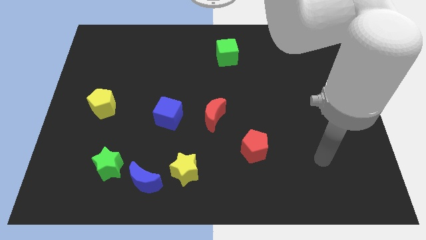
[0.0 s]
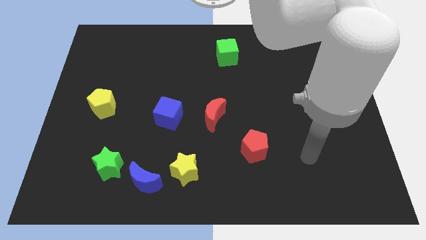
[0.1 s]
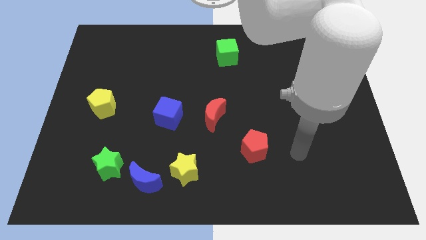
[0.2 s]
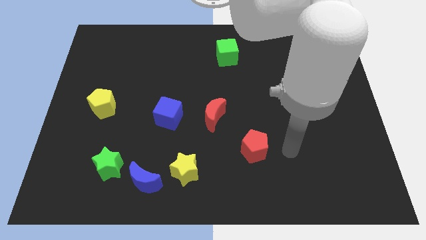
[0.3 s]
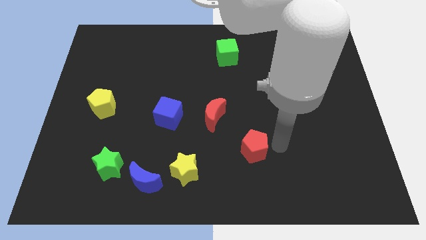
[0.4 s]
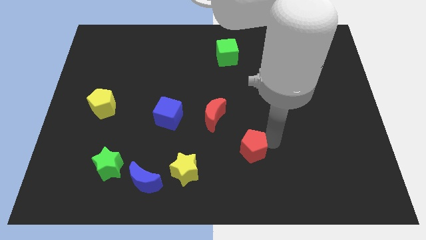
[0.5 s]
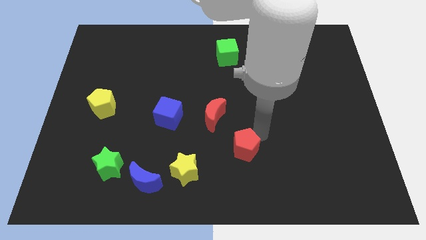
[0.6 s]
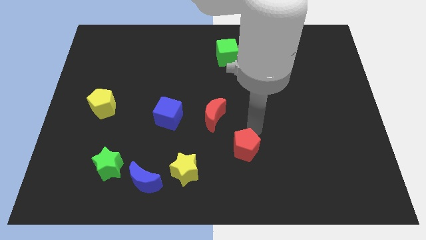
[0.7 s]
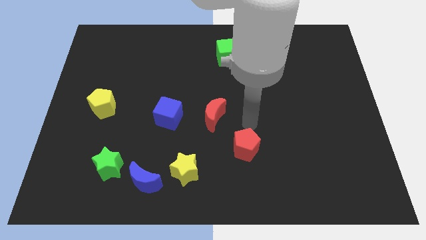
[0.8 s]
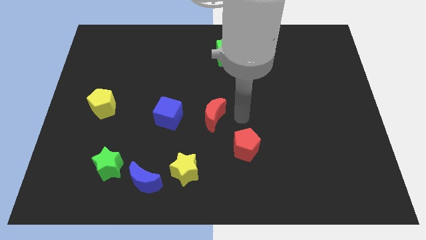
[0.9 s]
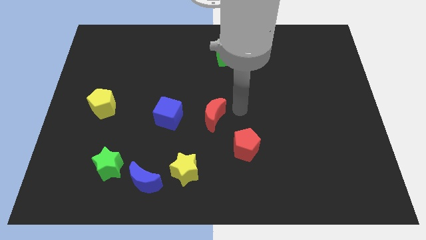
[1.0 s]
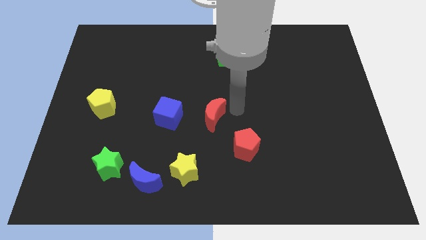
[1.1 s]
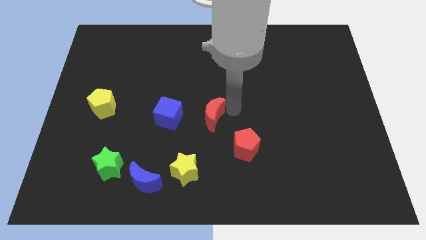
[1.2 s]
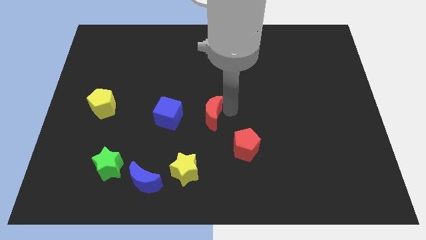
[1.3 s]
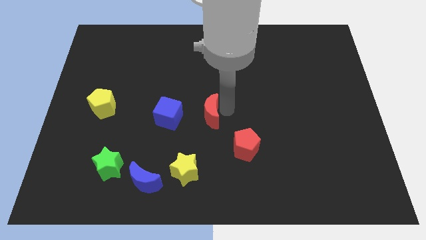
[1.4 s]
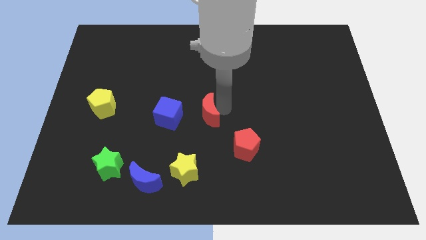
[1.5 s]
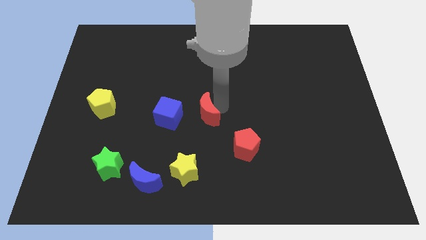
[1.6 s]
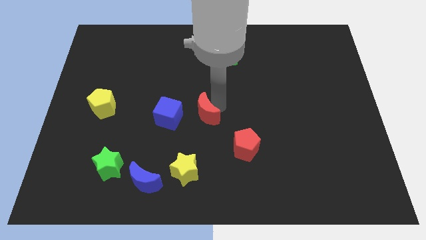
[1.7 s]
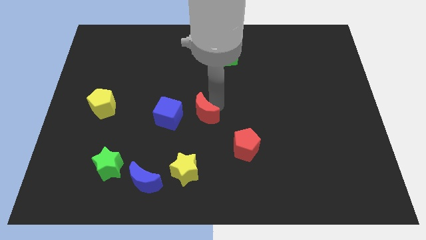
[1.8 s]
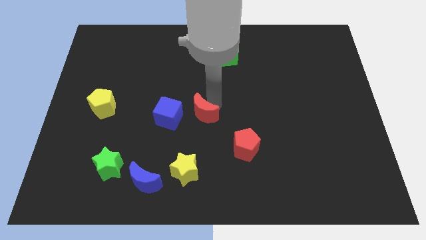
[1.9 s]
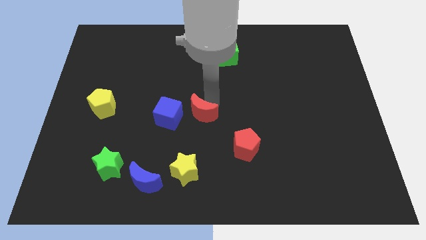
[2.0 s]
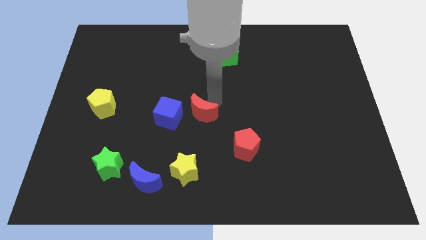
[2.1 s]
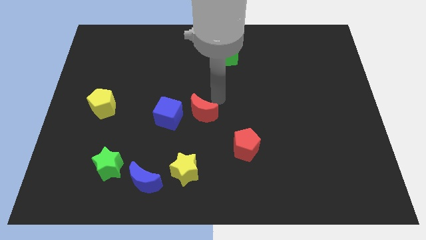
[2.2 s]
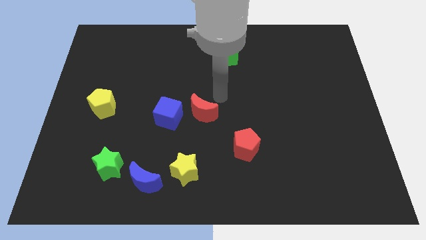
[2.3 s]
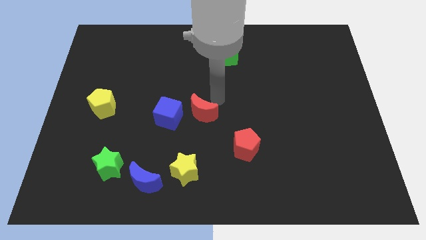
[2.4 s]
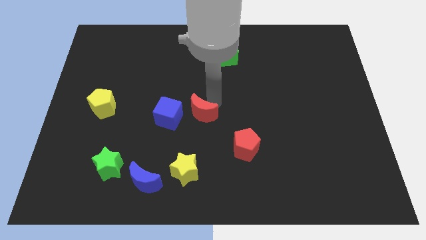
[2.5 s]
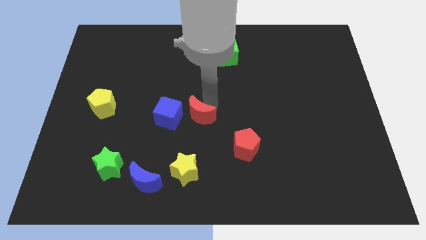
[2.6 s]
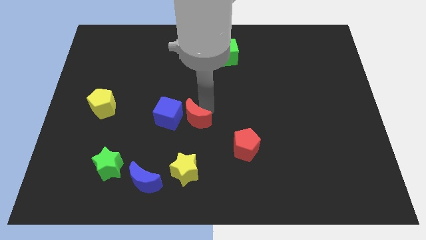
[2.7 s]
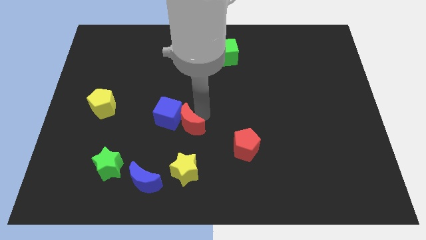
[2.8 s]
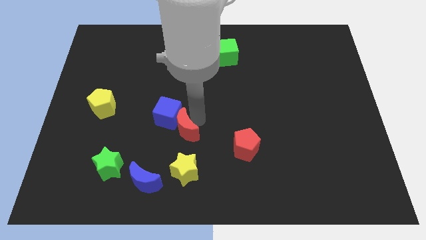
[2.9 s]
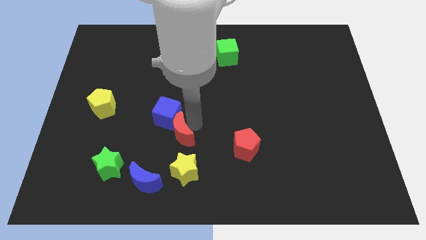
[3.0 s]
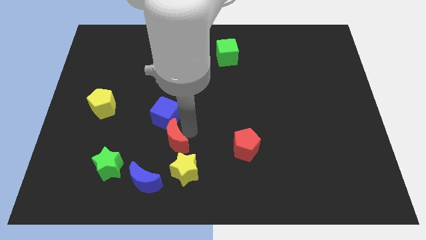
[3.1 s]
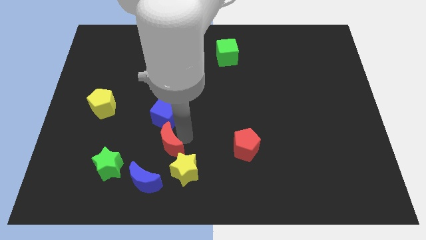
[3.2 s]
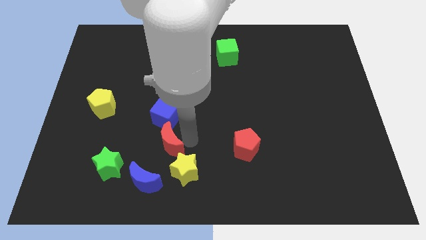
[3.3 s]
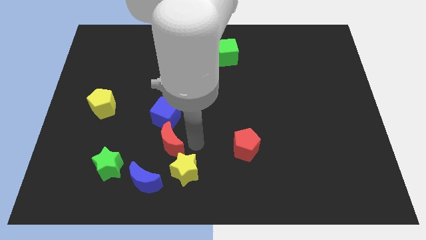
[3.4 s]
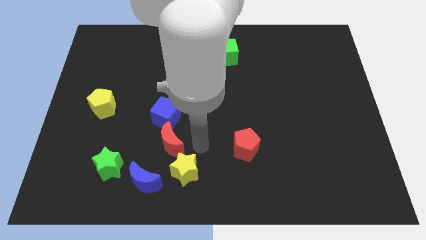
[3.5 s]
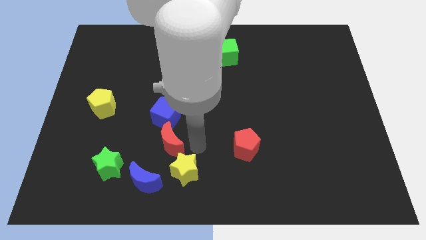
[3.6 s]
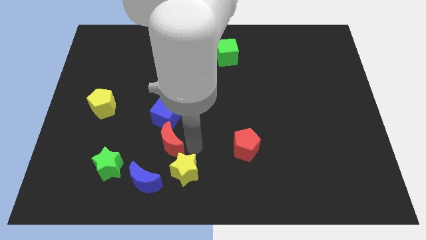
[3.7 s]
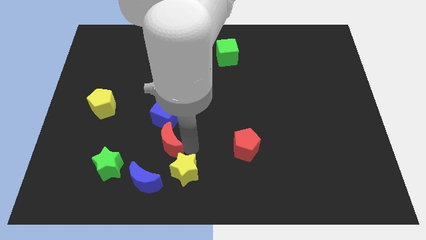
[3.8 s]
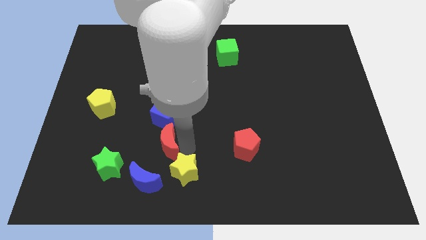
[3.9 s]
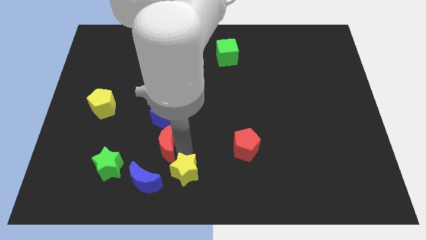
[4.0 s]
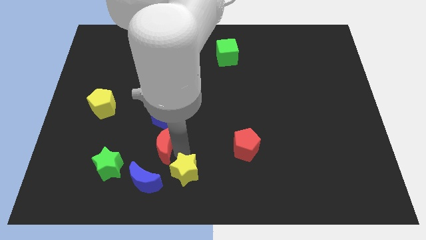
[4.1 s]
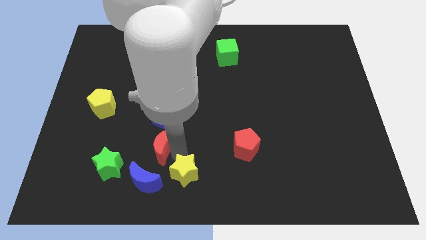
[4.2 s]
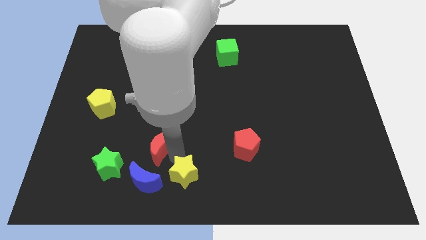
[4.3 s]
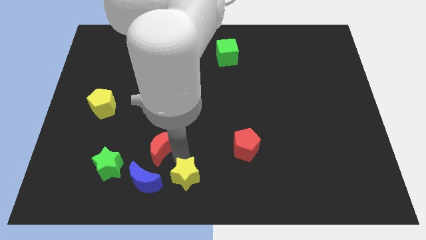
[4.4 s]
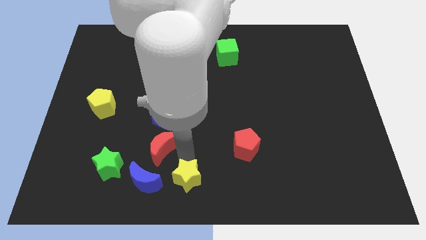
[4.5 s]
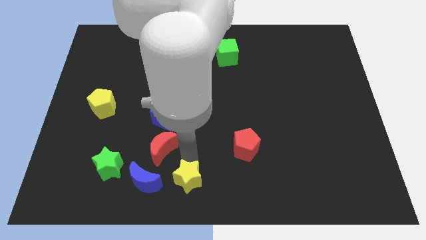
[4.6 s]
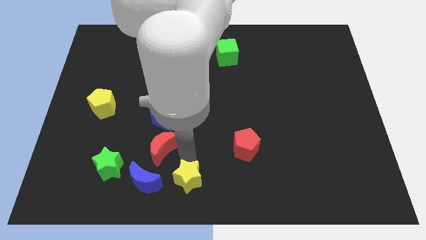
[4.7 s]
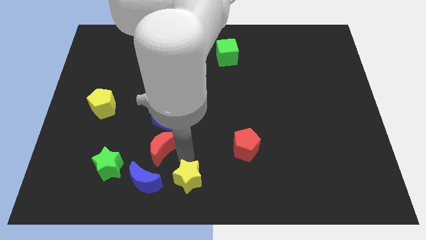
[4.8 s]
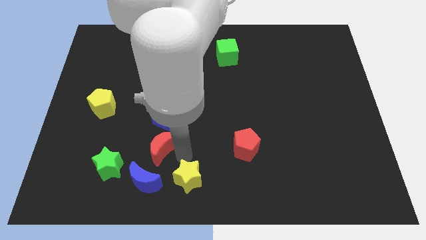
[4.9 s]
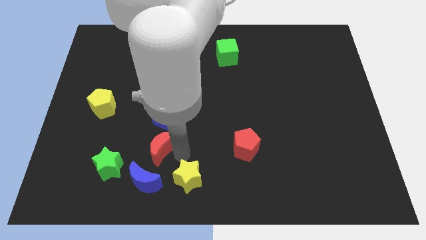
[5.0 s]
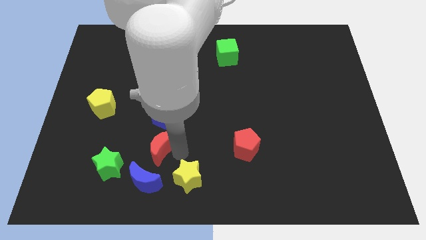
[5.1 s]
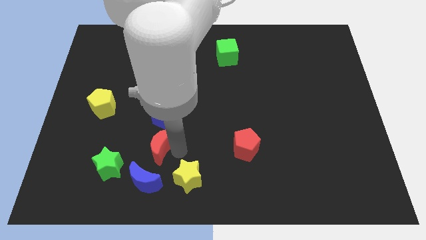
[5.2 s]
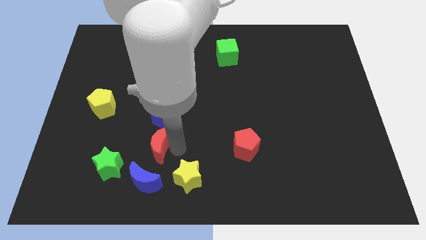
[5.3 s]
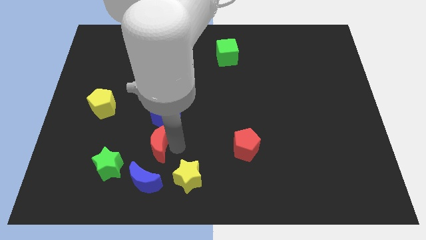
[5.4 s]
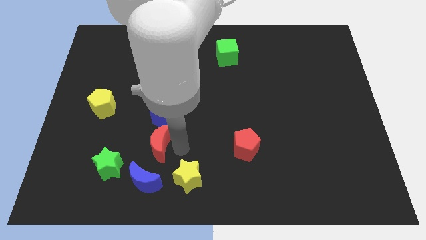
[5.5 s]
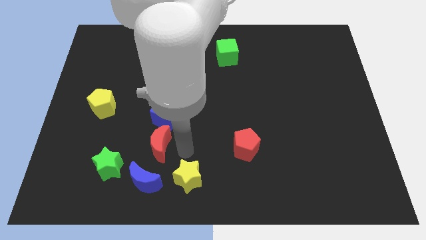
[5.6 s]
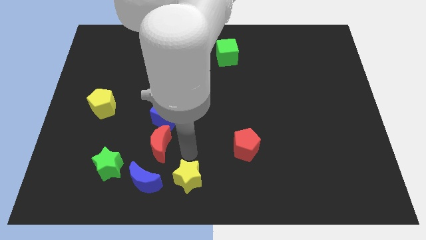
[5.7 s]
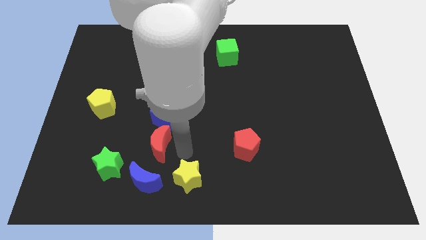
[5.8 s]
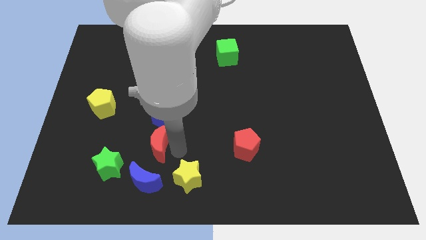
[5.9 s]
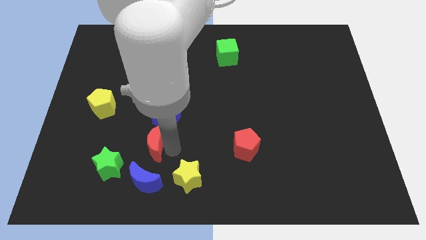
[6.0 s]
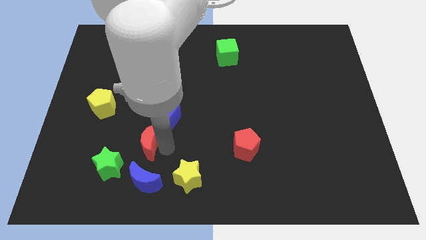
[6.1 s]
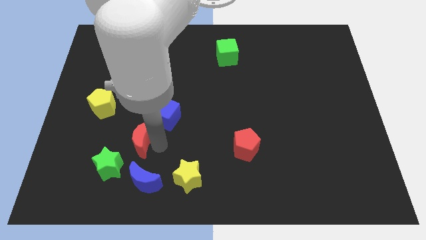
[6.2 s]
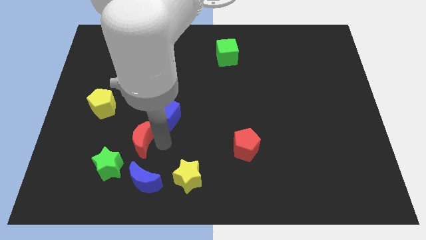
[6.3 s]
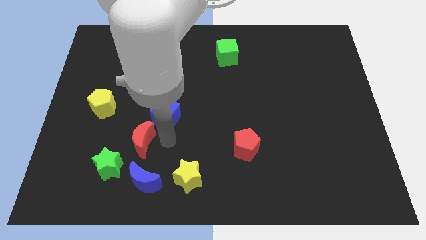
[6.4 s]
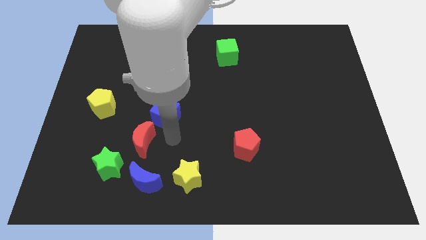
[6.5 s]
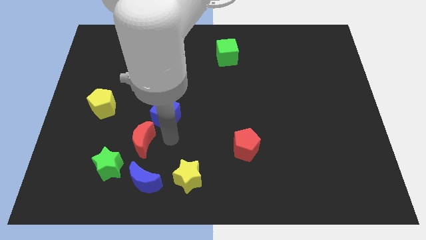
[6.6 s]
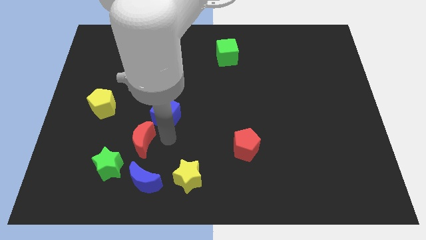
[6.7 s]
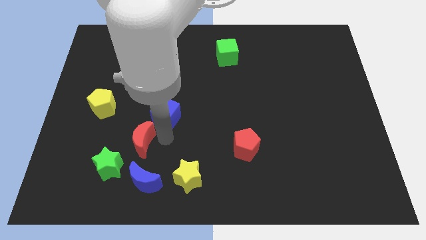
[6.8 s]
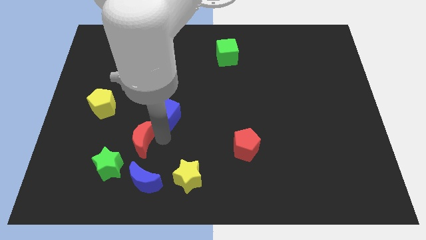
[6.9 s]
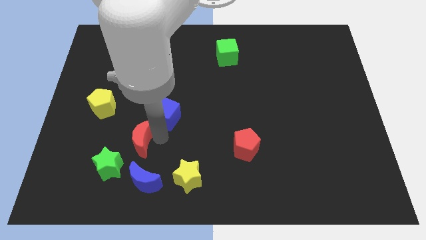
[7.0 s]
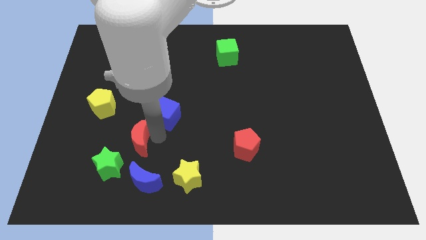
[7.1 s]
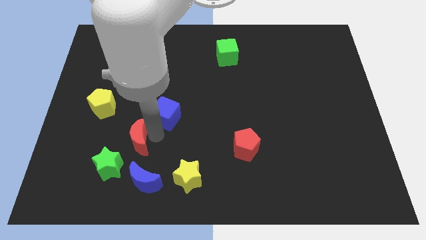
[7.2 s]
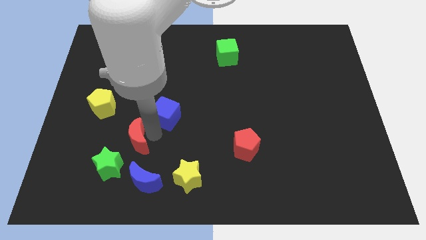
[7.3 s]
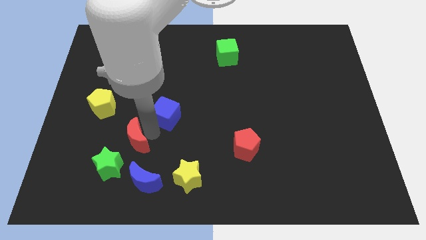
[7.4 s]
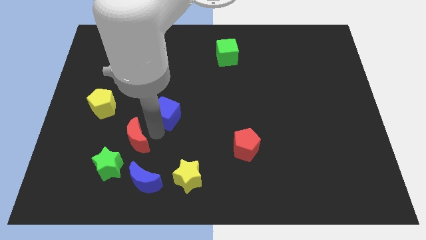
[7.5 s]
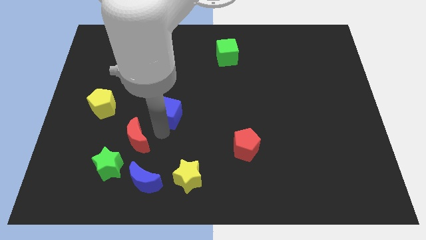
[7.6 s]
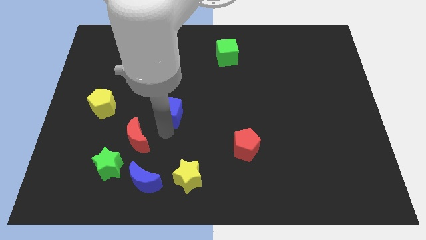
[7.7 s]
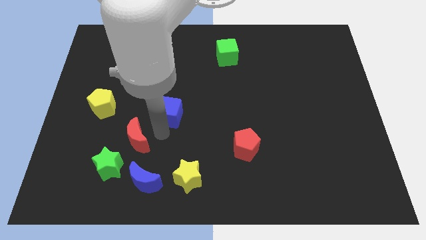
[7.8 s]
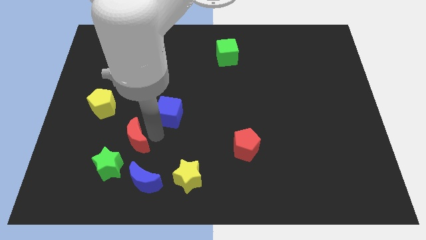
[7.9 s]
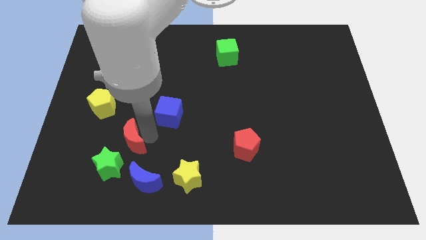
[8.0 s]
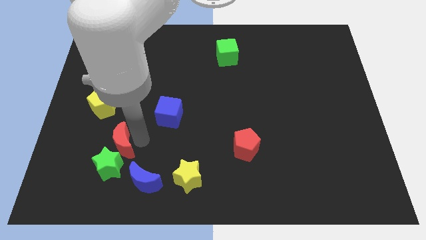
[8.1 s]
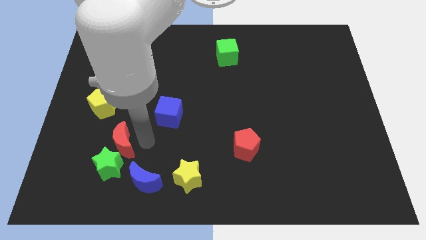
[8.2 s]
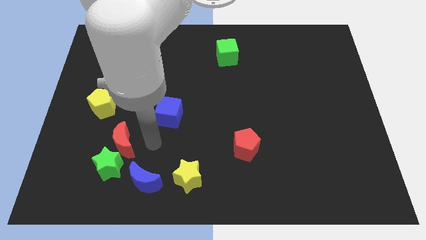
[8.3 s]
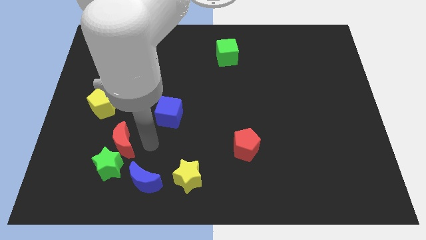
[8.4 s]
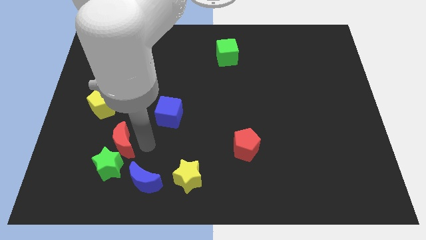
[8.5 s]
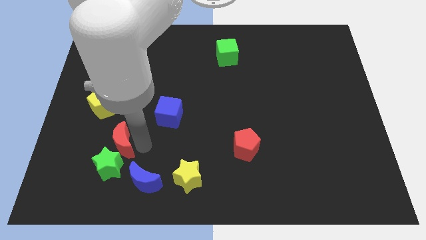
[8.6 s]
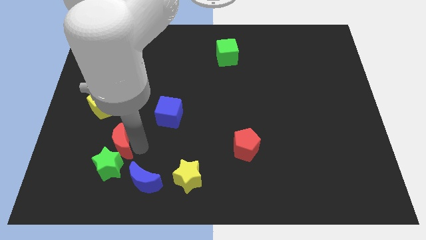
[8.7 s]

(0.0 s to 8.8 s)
push the red moon diagonally up and to the left of the green star
